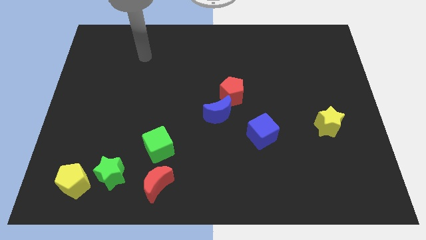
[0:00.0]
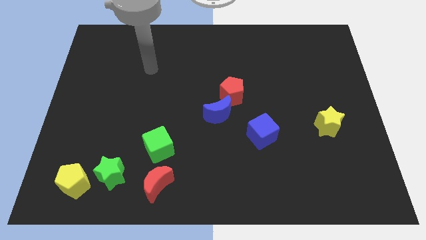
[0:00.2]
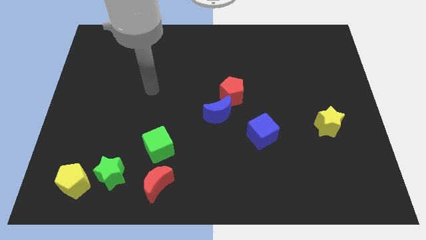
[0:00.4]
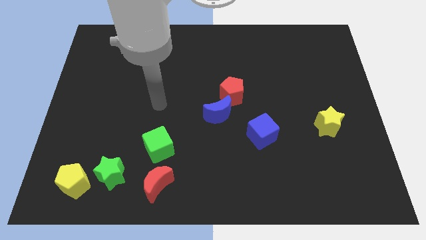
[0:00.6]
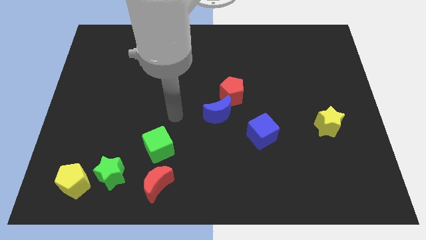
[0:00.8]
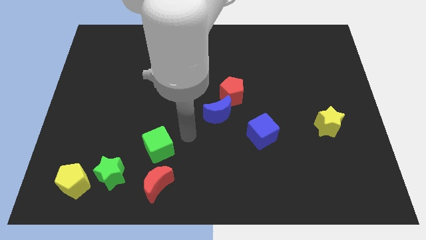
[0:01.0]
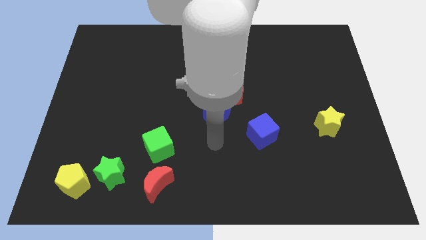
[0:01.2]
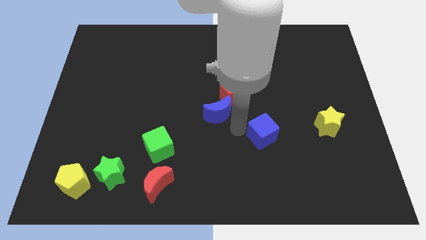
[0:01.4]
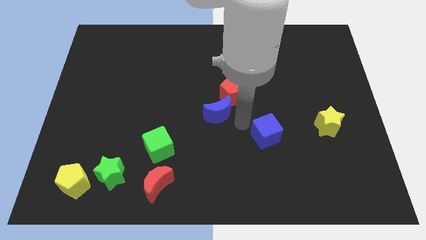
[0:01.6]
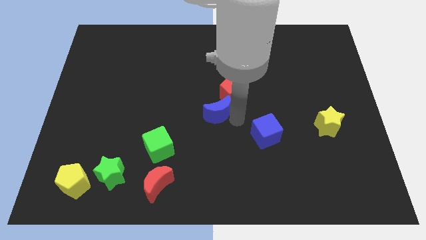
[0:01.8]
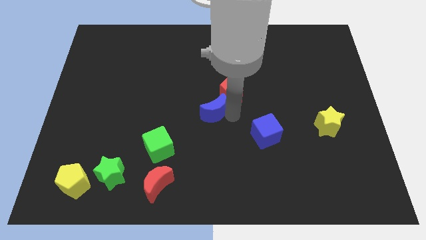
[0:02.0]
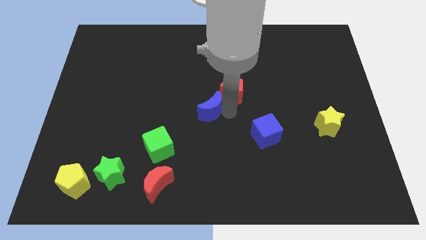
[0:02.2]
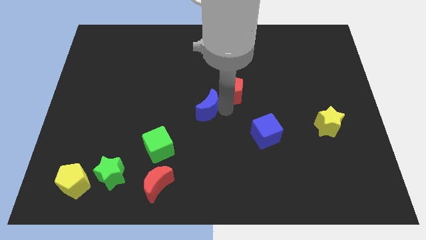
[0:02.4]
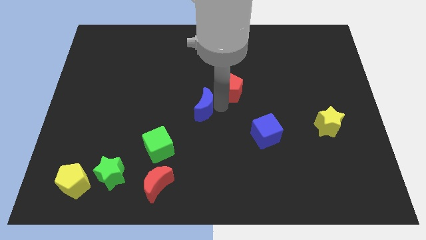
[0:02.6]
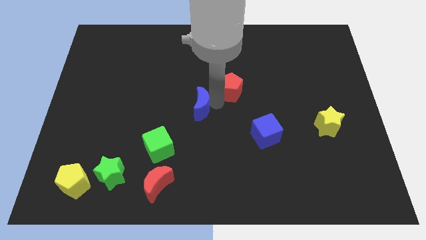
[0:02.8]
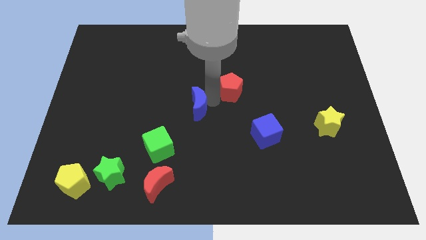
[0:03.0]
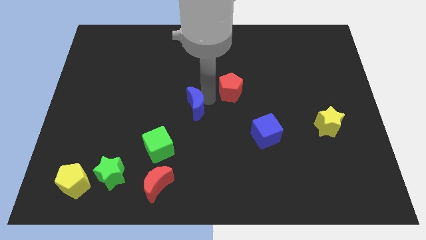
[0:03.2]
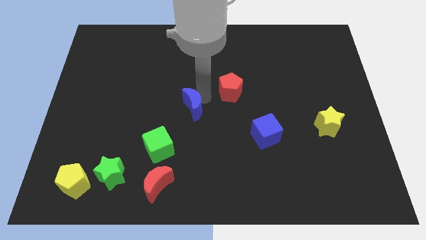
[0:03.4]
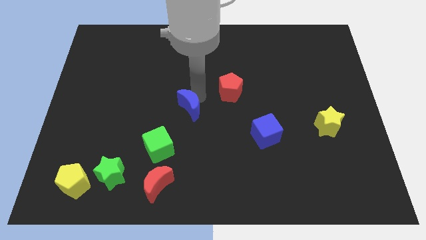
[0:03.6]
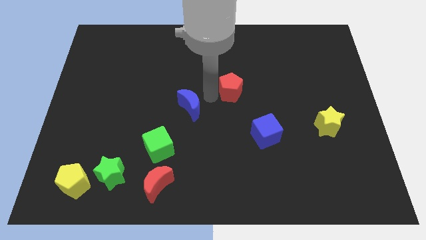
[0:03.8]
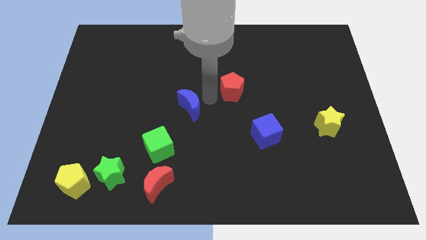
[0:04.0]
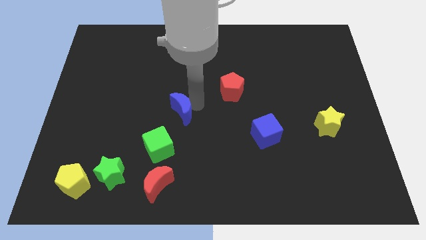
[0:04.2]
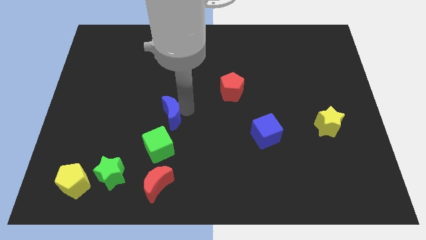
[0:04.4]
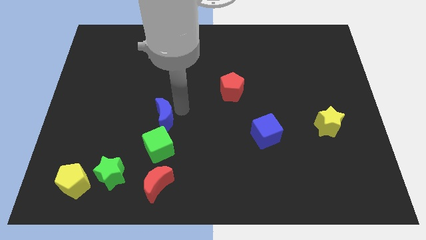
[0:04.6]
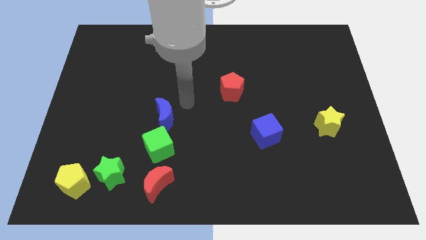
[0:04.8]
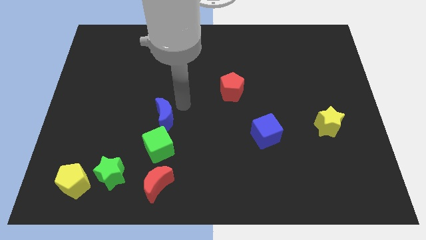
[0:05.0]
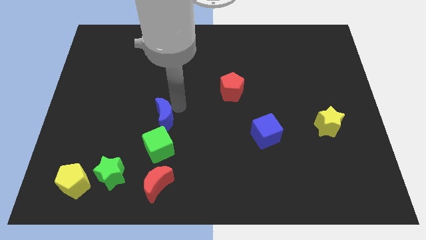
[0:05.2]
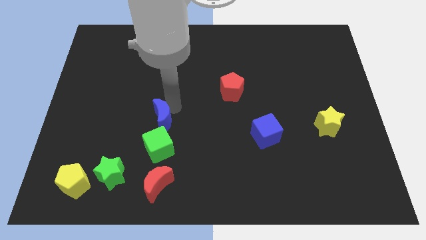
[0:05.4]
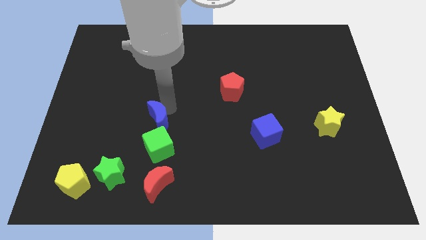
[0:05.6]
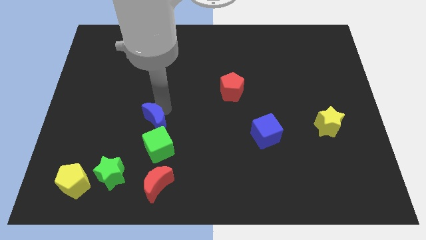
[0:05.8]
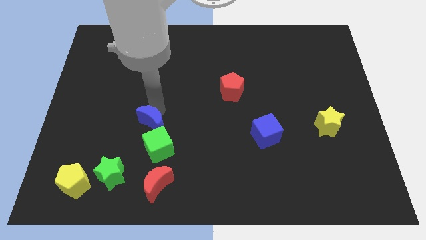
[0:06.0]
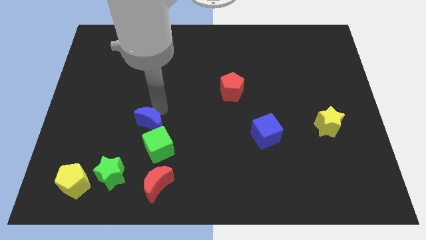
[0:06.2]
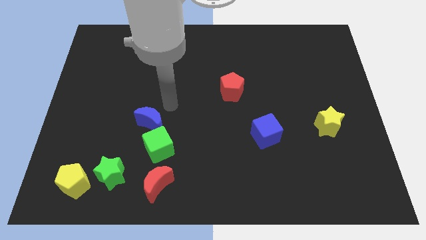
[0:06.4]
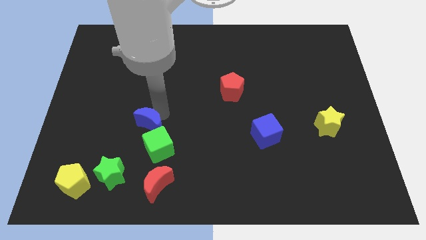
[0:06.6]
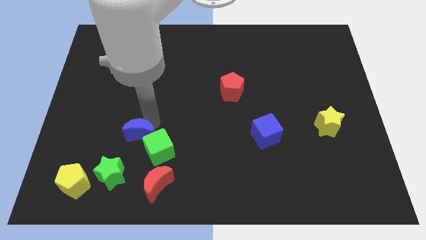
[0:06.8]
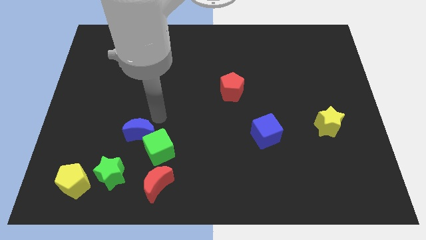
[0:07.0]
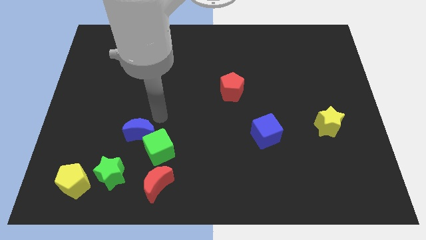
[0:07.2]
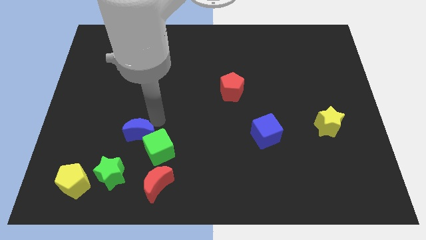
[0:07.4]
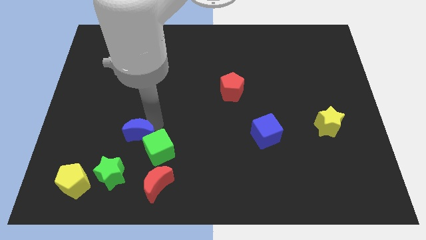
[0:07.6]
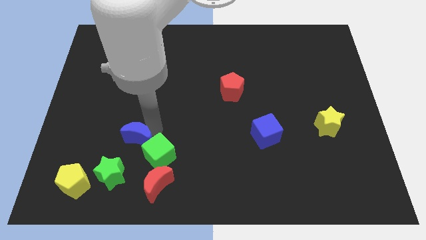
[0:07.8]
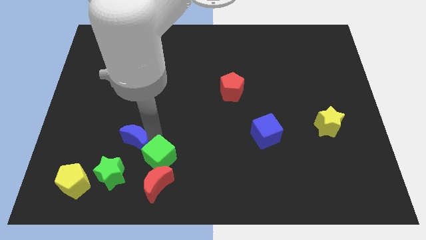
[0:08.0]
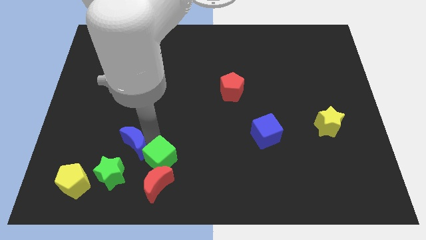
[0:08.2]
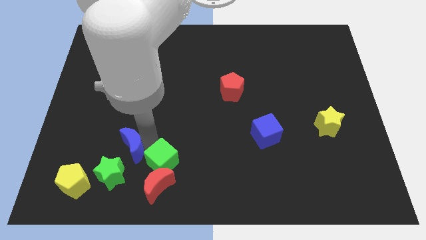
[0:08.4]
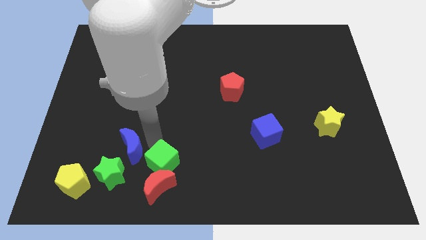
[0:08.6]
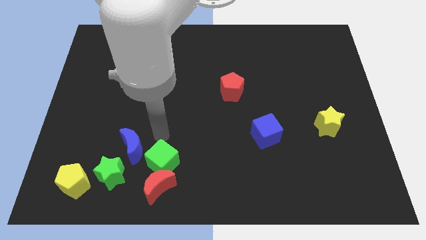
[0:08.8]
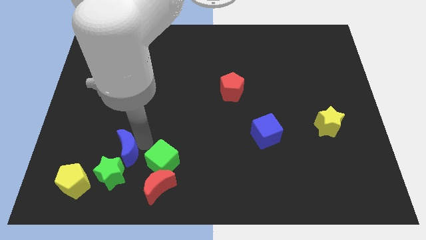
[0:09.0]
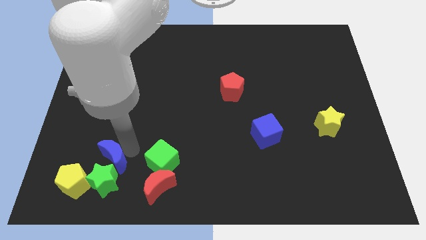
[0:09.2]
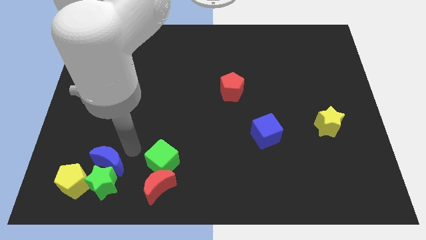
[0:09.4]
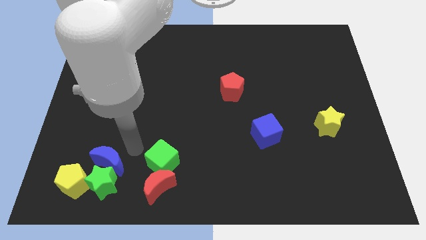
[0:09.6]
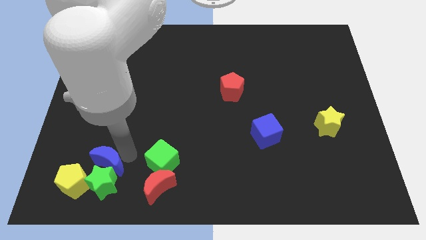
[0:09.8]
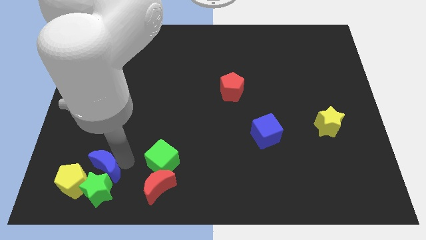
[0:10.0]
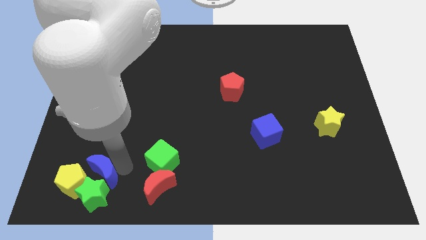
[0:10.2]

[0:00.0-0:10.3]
push the blue moon to the yellow pentagon

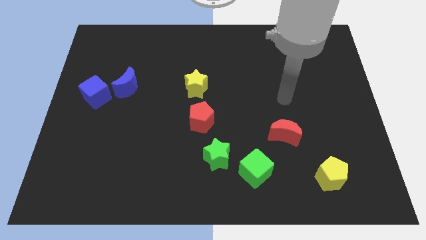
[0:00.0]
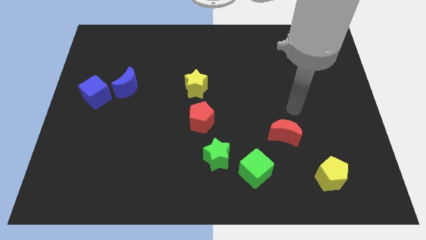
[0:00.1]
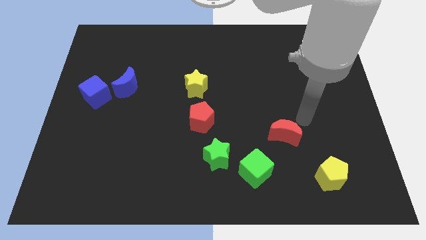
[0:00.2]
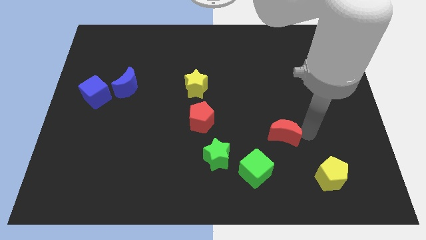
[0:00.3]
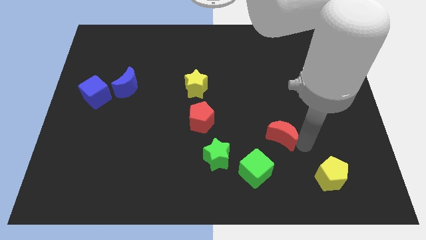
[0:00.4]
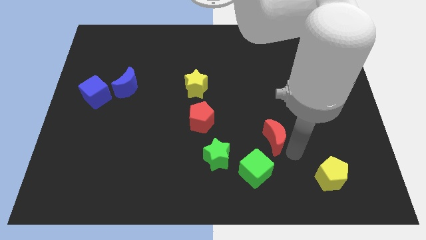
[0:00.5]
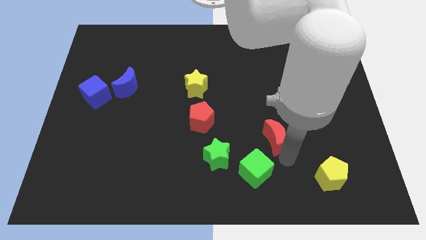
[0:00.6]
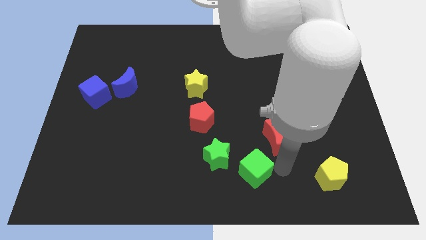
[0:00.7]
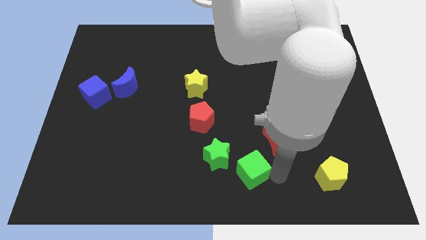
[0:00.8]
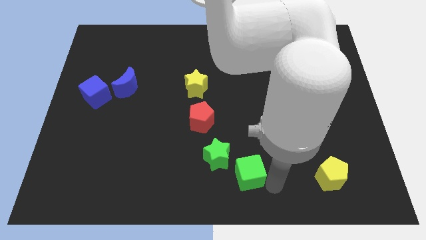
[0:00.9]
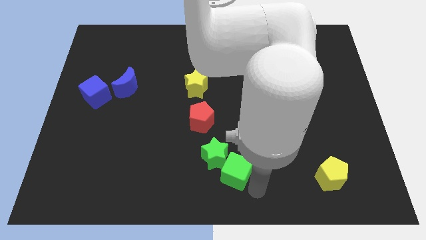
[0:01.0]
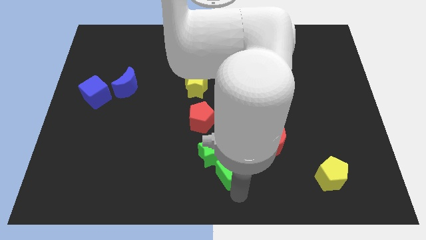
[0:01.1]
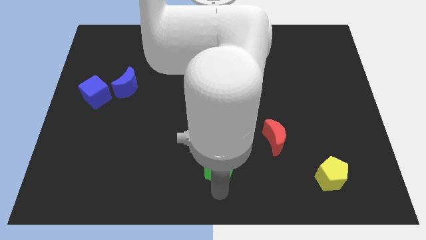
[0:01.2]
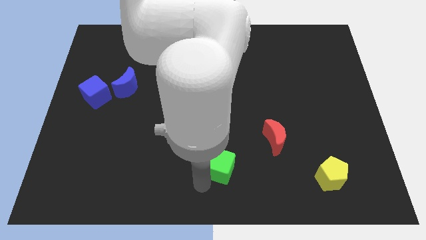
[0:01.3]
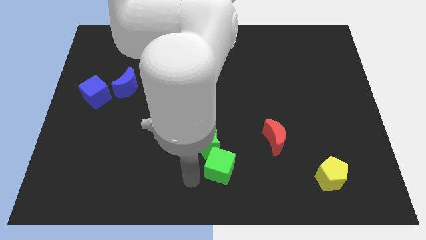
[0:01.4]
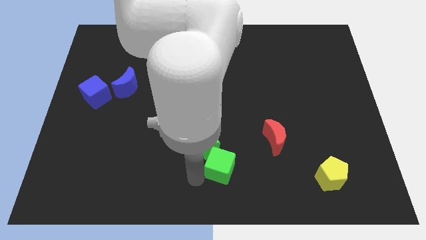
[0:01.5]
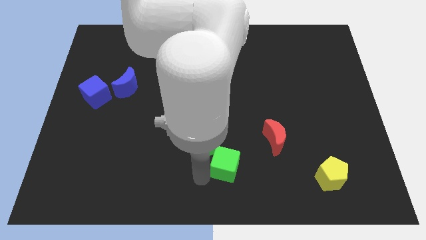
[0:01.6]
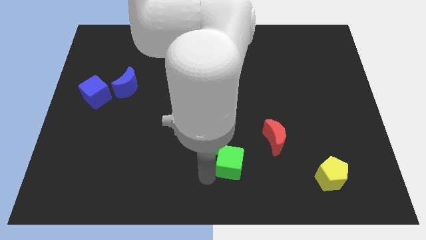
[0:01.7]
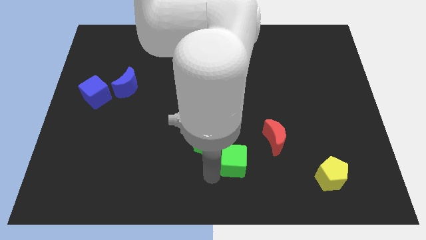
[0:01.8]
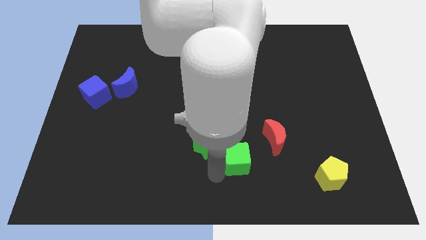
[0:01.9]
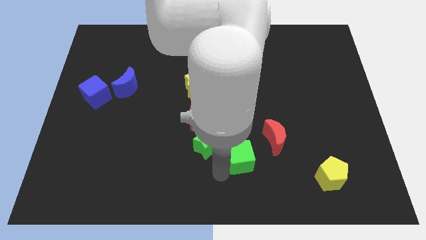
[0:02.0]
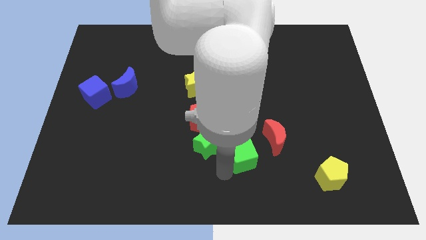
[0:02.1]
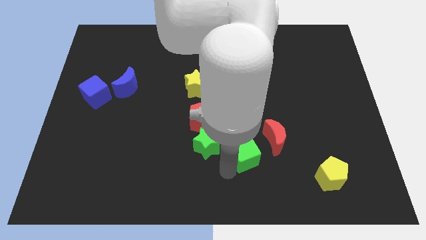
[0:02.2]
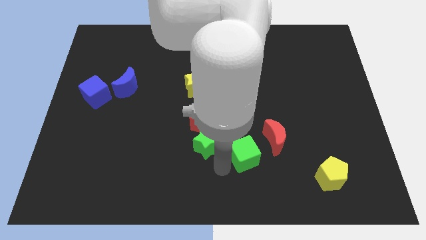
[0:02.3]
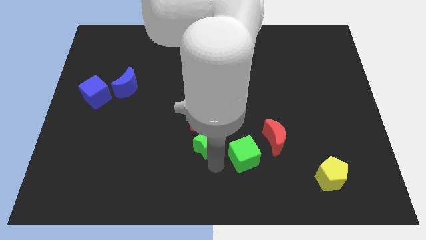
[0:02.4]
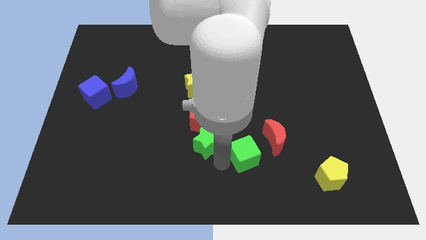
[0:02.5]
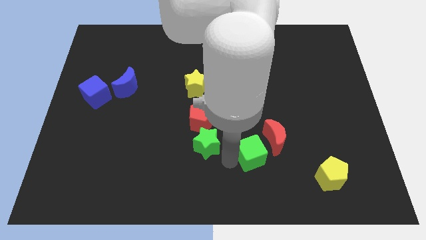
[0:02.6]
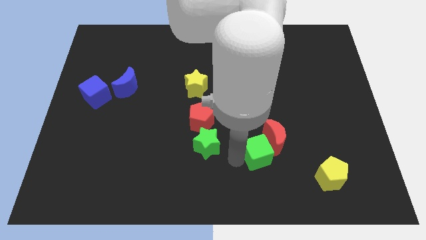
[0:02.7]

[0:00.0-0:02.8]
slide the green cube to the red moon
